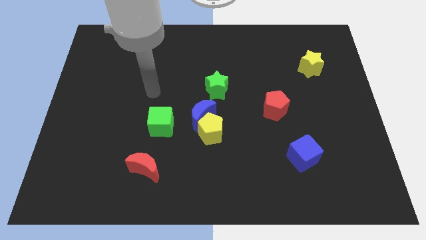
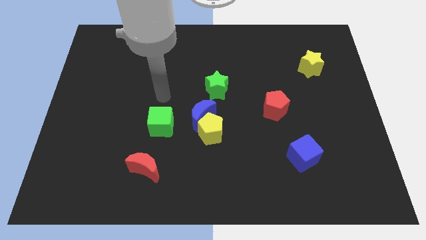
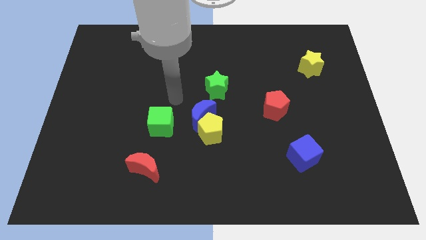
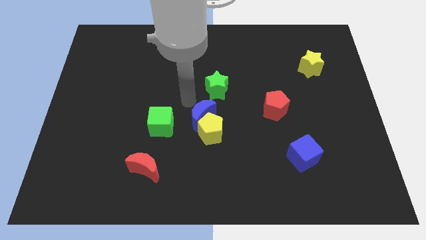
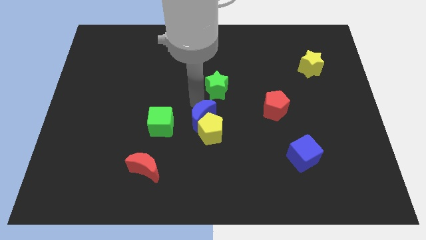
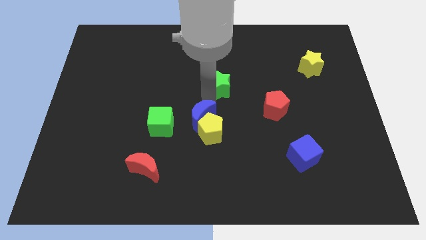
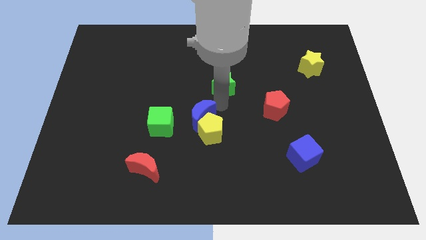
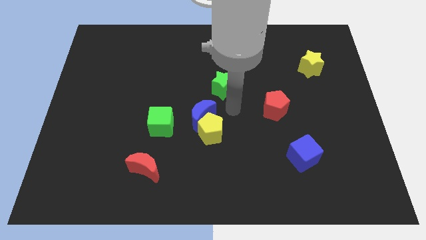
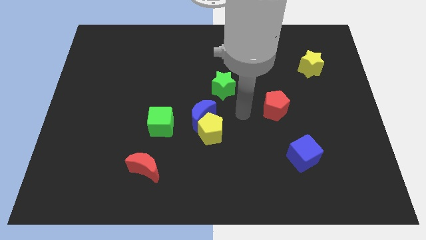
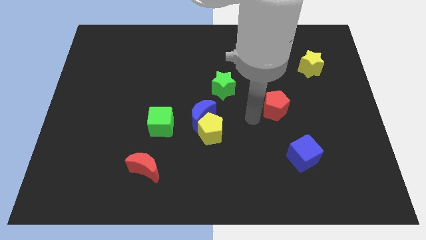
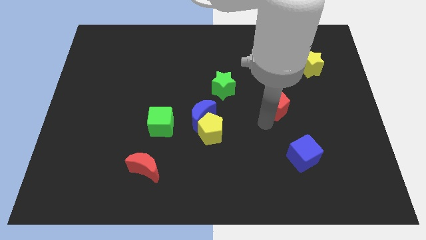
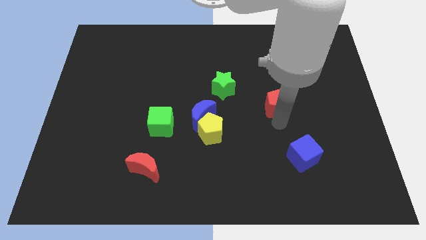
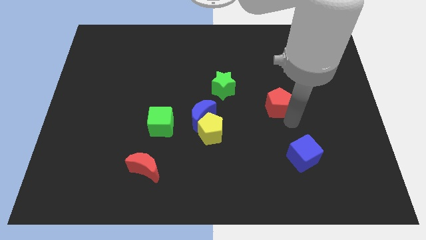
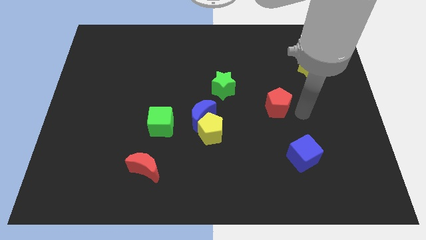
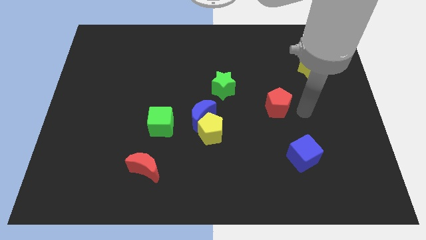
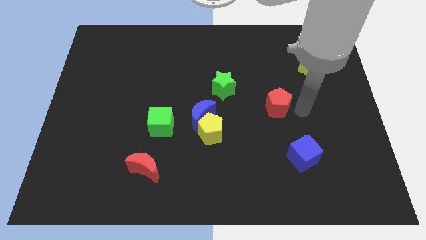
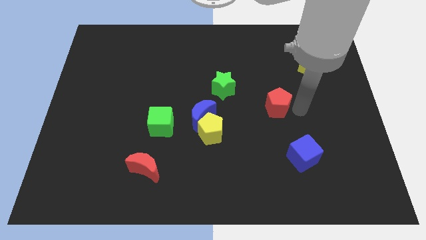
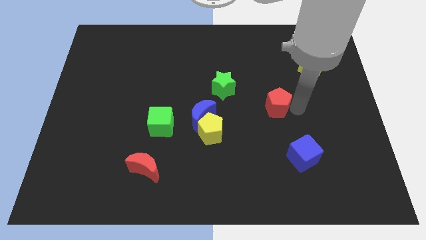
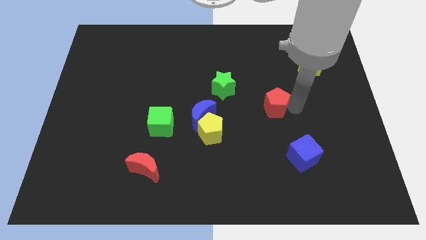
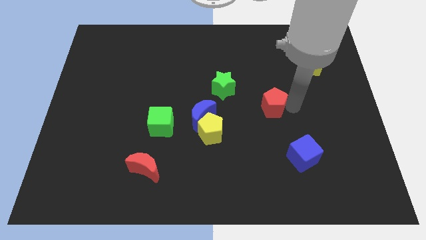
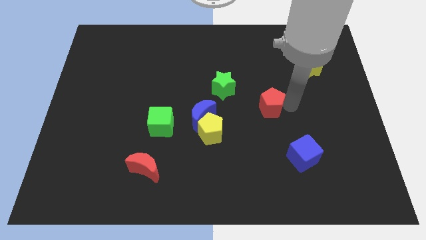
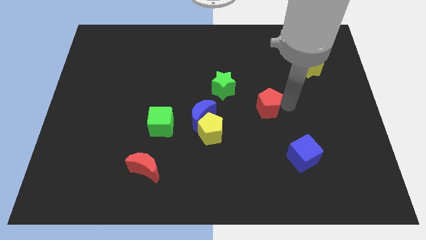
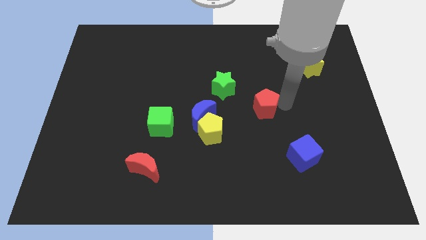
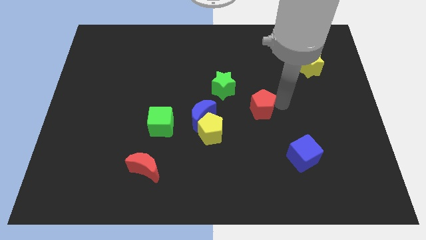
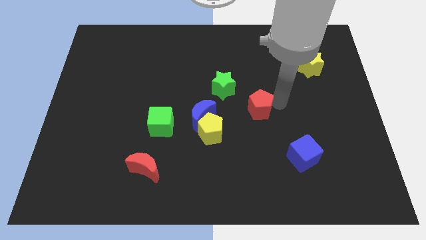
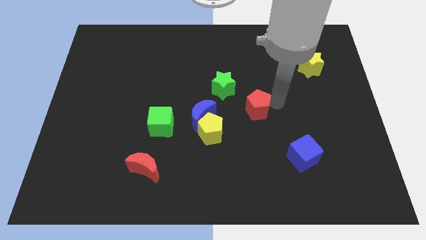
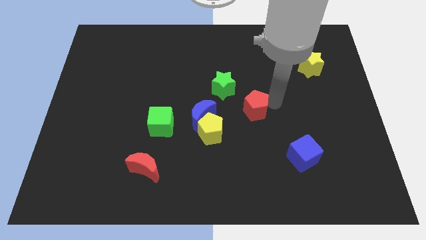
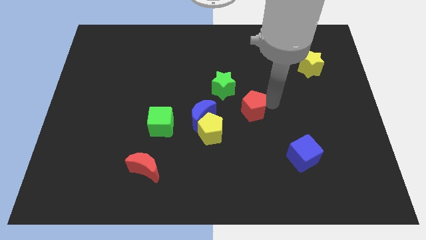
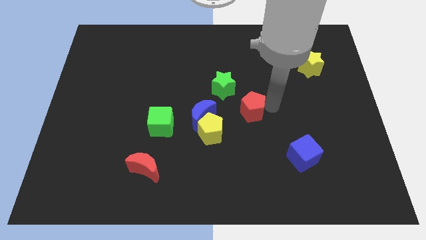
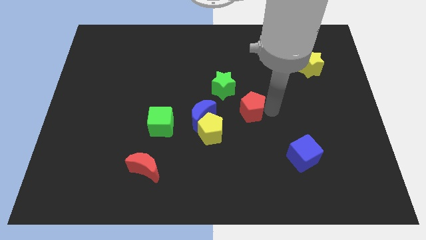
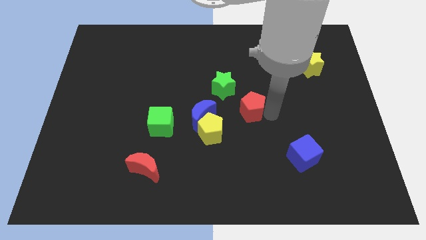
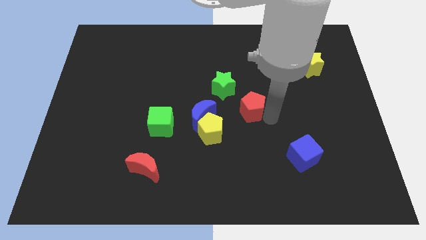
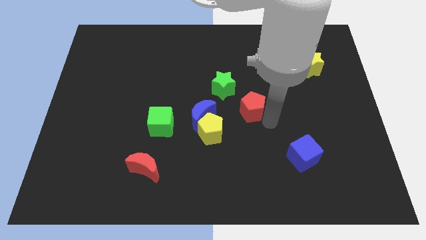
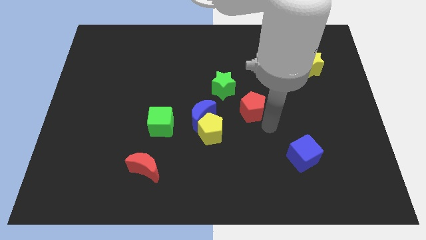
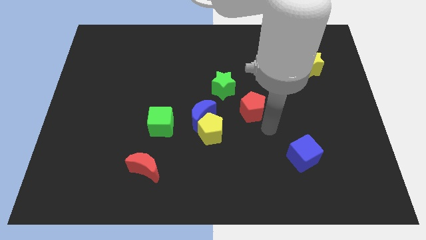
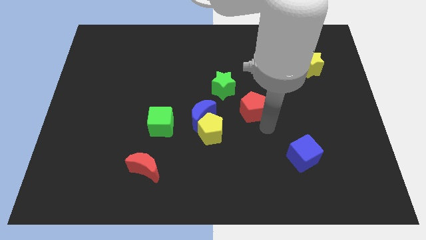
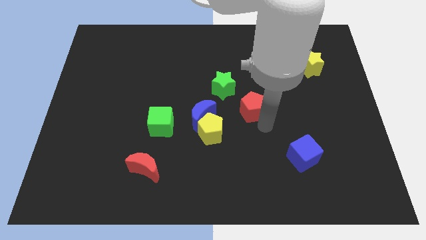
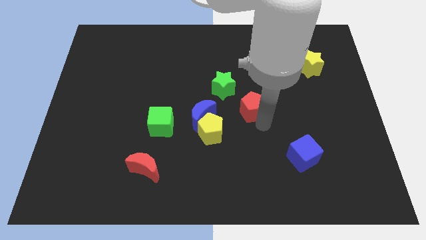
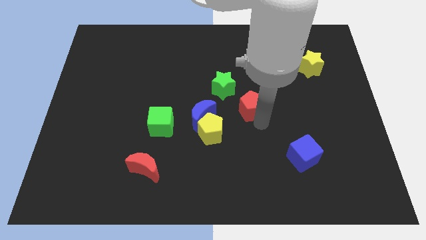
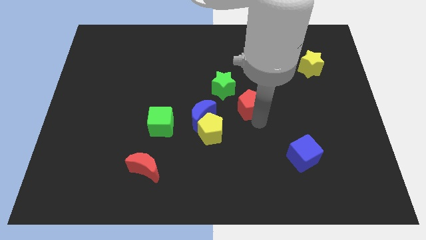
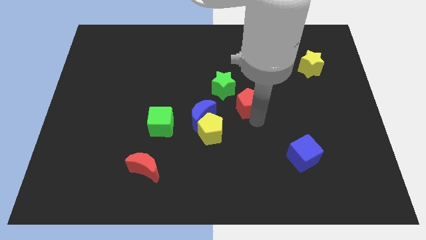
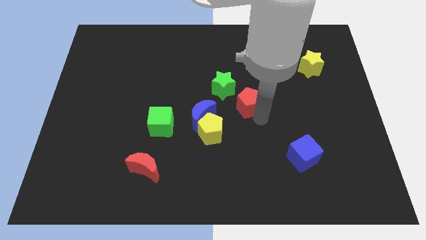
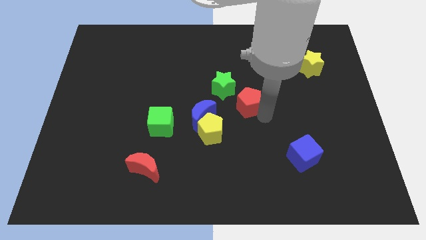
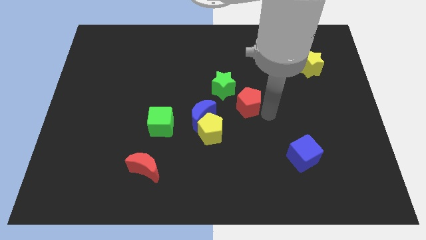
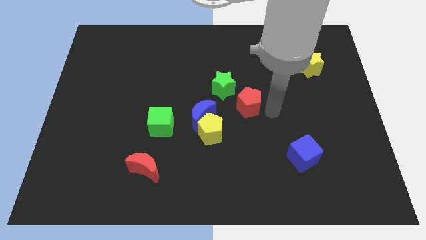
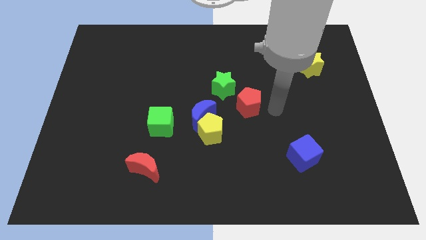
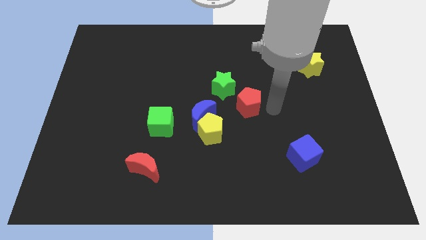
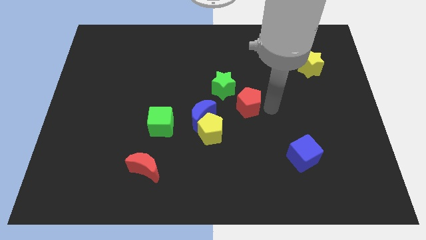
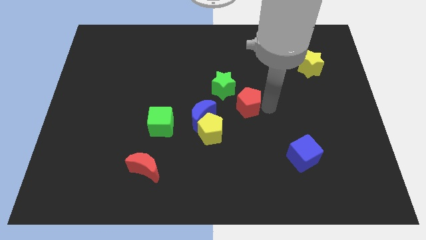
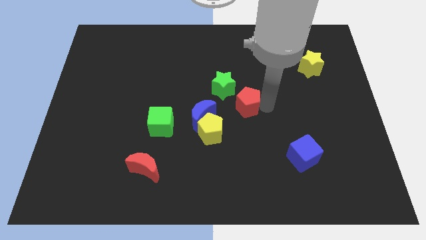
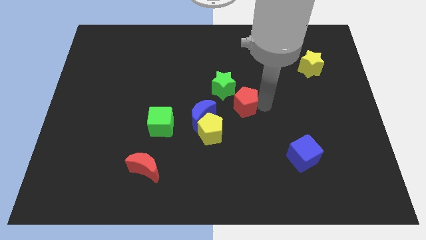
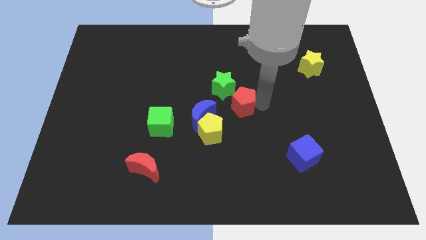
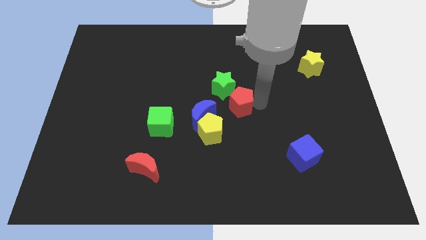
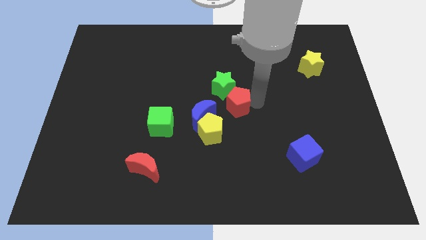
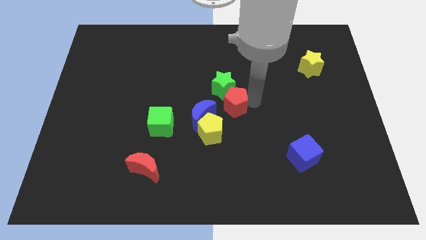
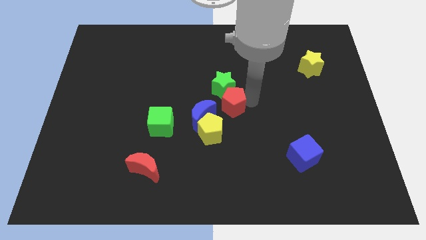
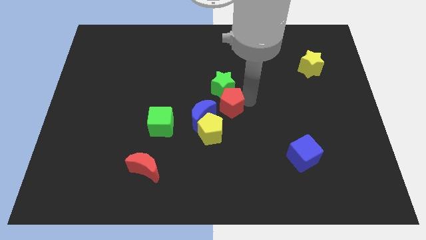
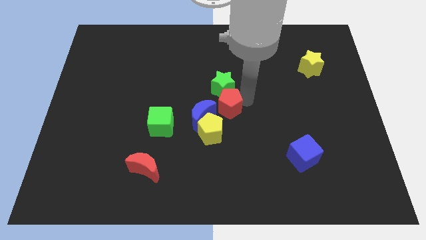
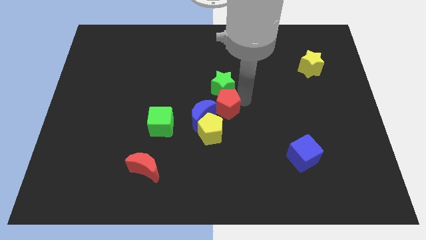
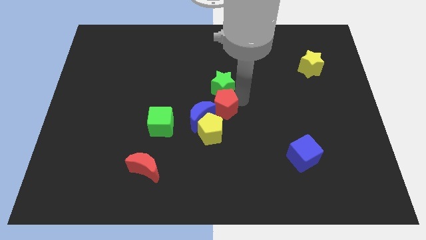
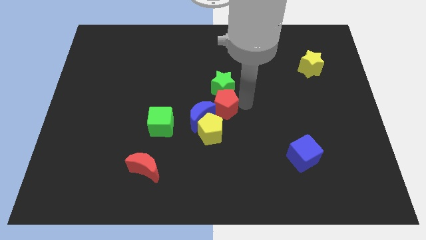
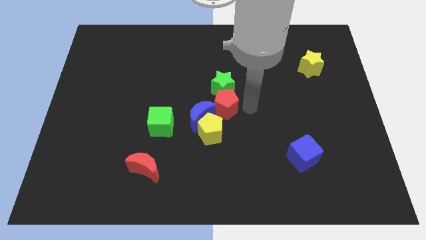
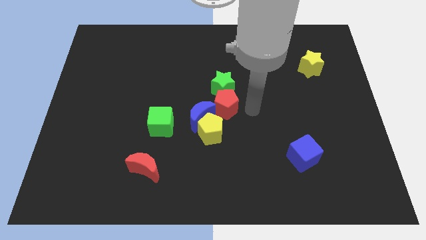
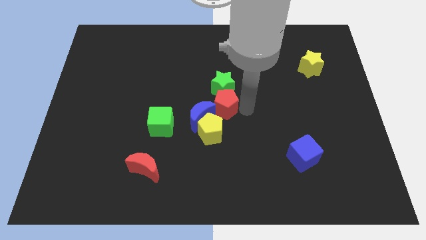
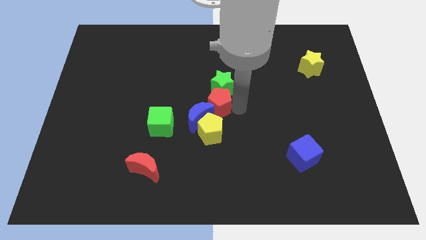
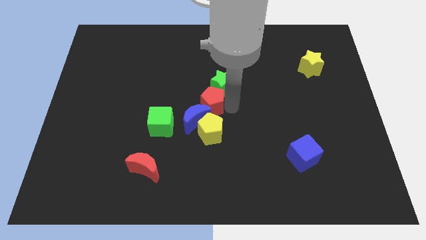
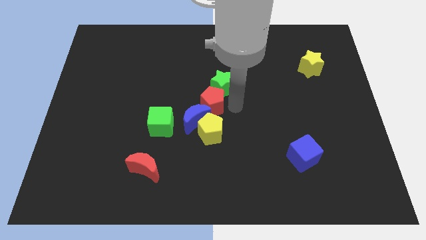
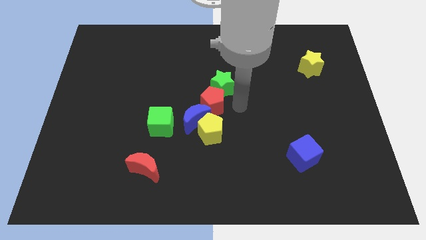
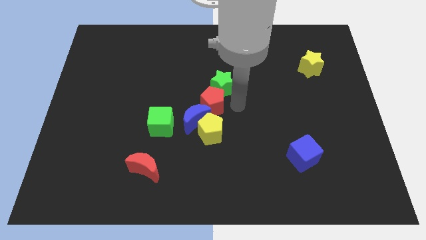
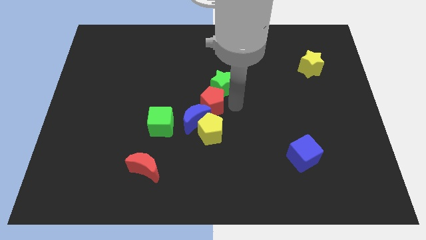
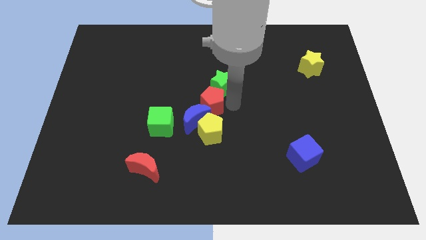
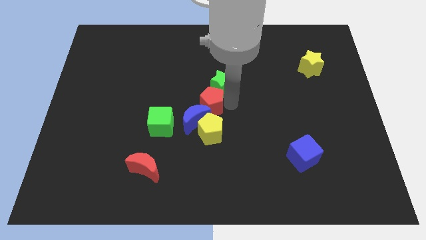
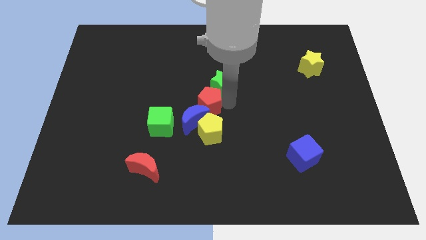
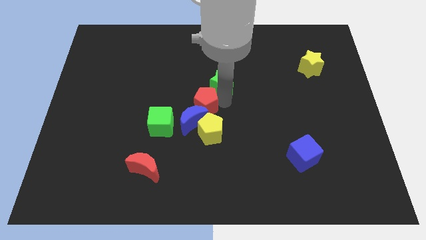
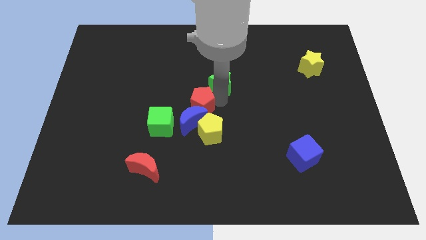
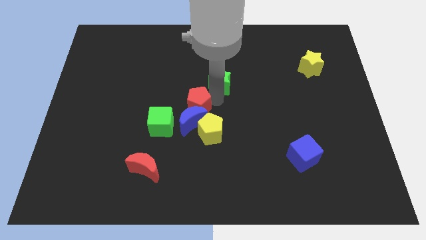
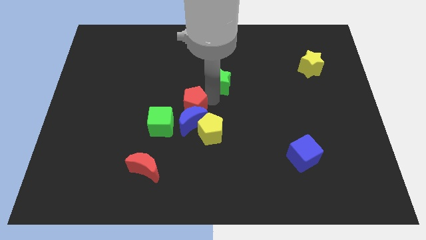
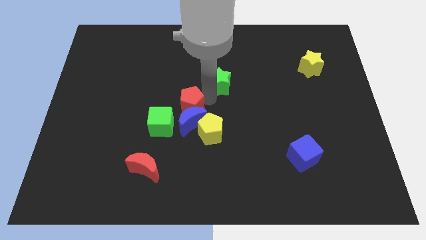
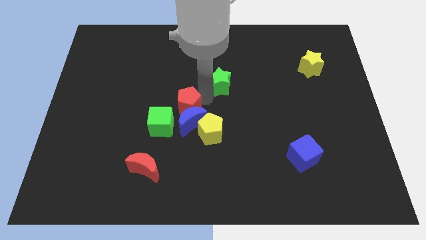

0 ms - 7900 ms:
push the red pentagon to the left
